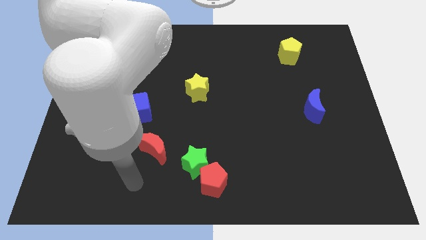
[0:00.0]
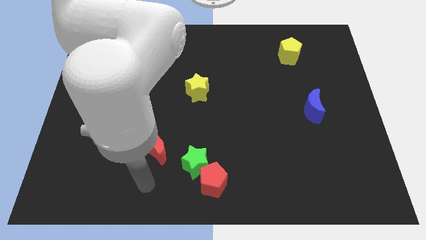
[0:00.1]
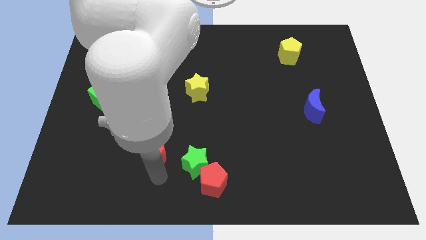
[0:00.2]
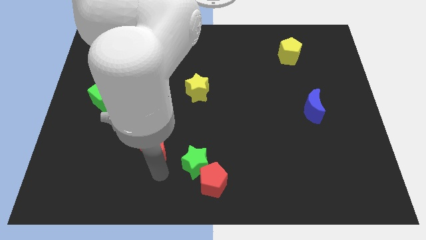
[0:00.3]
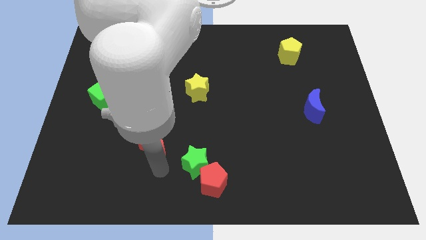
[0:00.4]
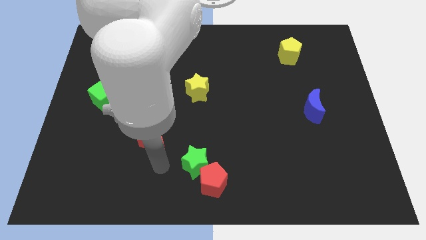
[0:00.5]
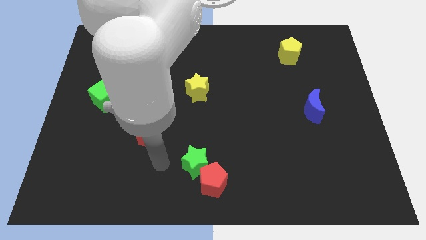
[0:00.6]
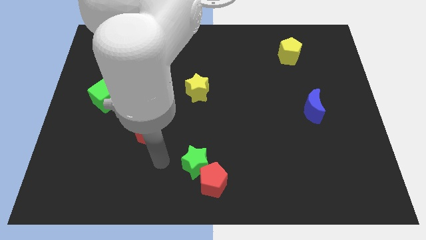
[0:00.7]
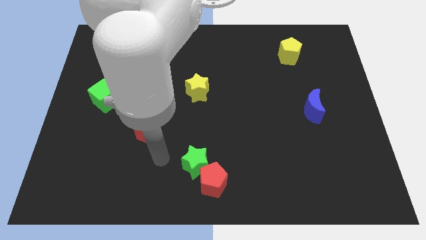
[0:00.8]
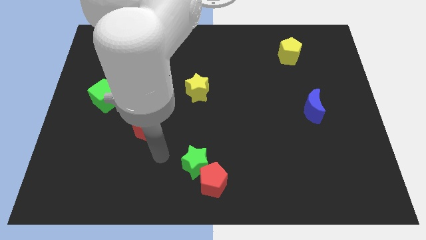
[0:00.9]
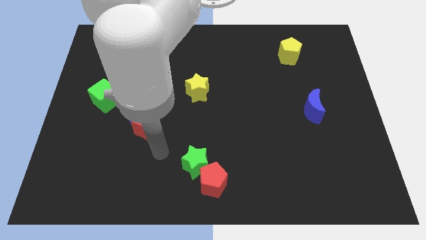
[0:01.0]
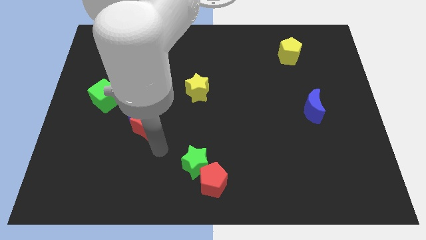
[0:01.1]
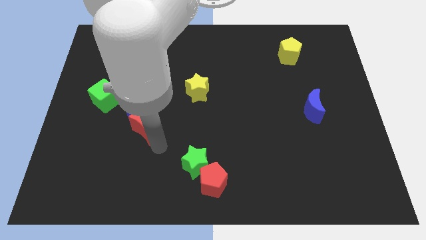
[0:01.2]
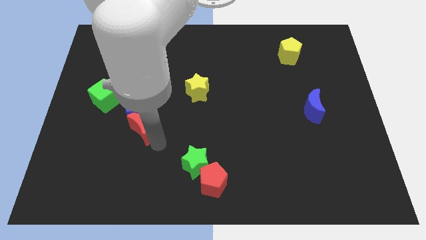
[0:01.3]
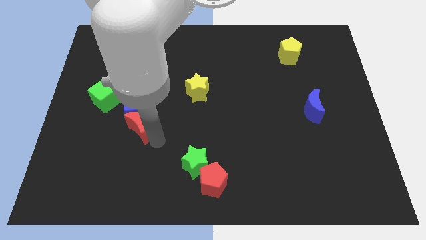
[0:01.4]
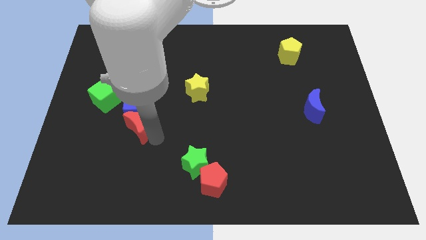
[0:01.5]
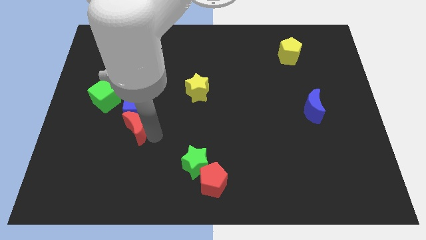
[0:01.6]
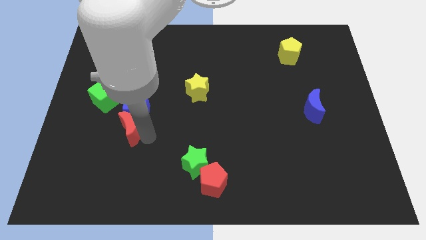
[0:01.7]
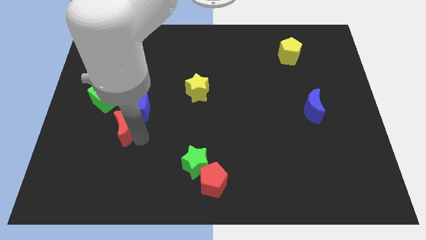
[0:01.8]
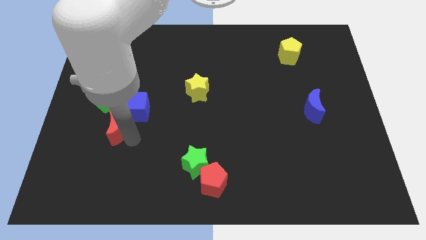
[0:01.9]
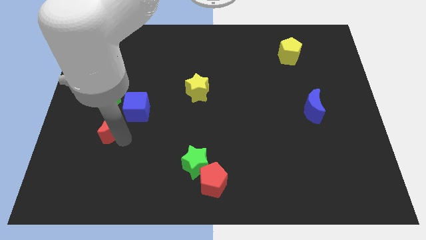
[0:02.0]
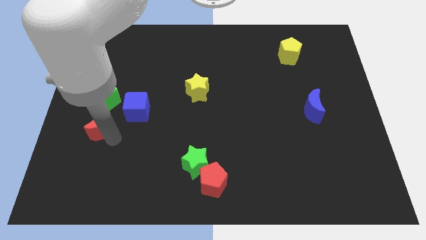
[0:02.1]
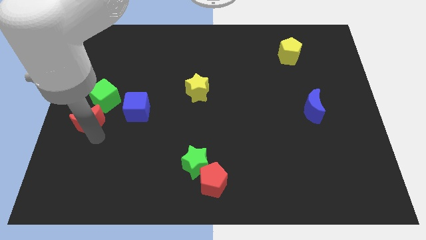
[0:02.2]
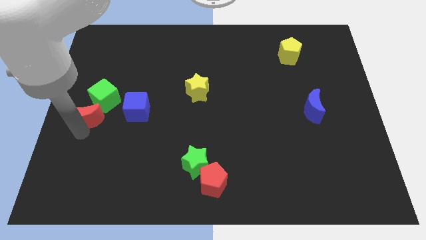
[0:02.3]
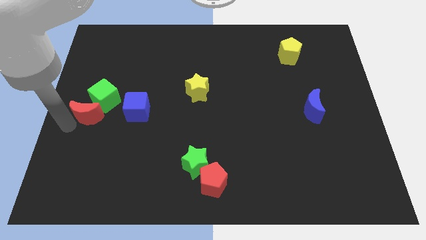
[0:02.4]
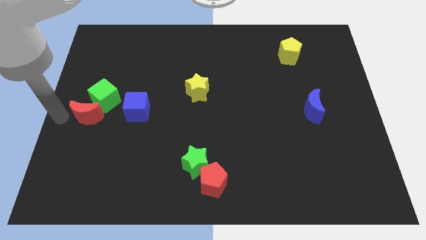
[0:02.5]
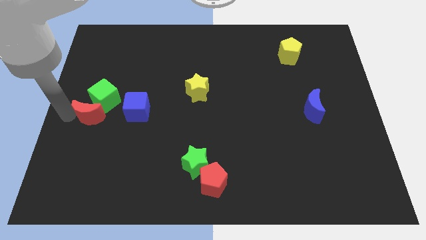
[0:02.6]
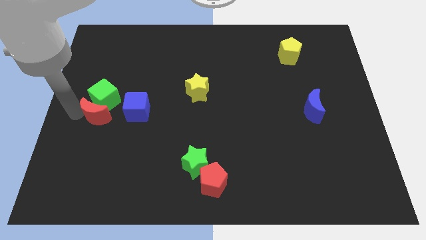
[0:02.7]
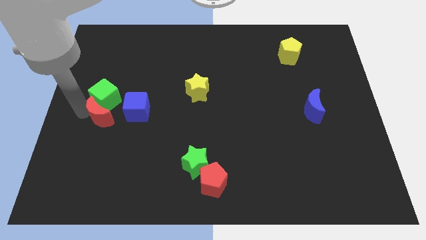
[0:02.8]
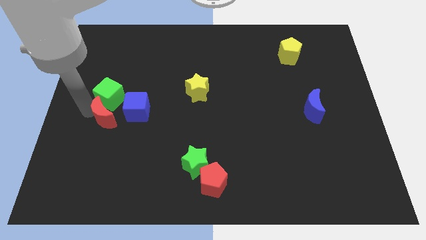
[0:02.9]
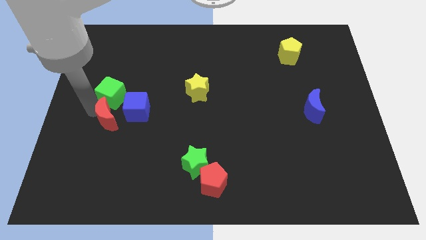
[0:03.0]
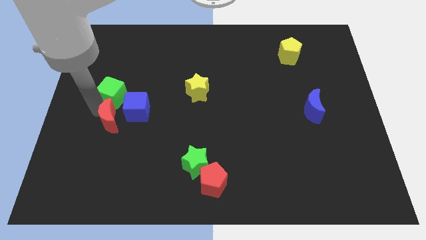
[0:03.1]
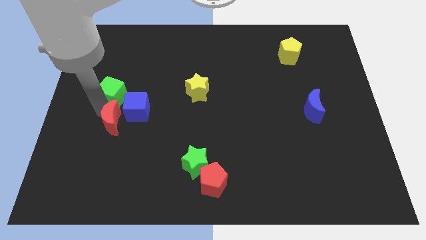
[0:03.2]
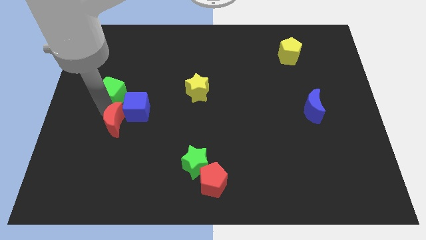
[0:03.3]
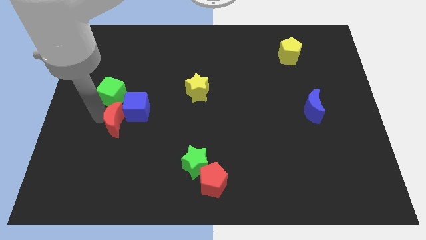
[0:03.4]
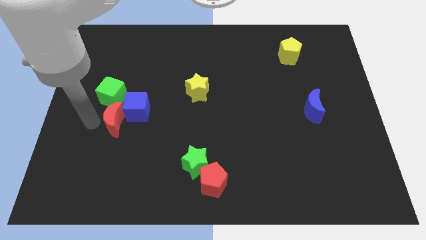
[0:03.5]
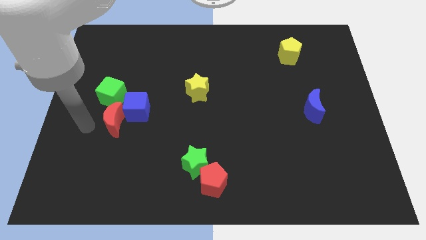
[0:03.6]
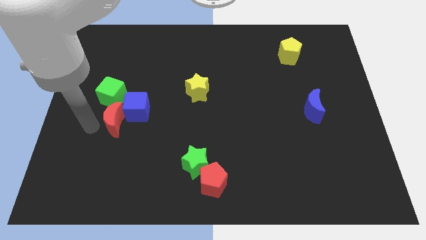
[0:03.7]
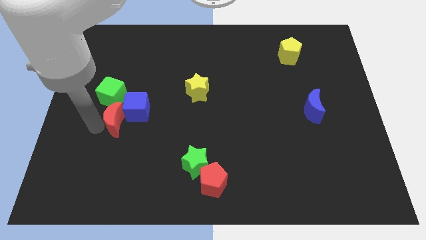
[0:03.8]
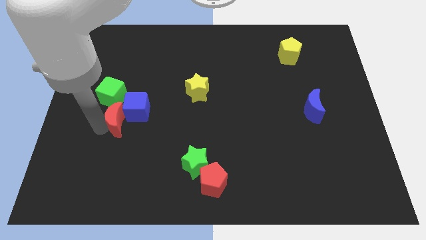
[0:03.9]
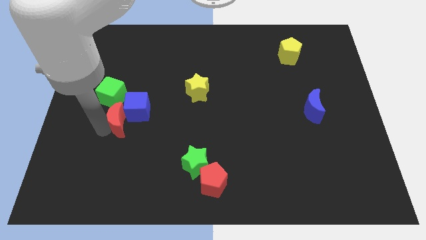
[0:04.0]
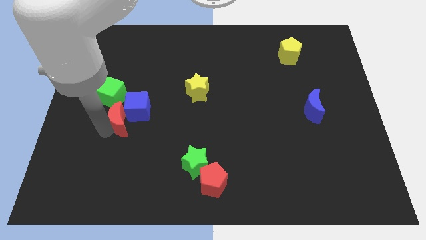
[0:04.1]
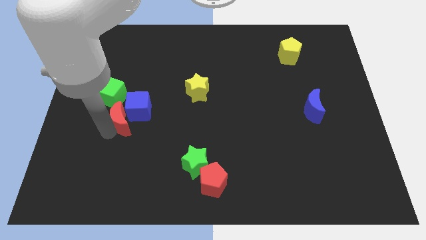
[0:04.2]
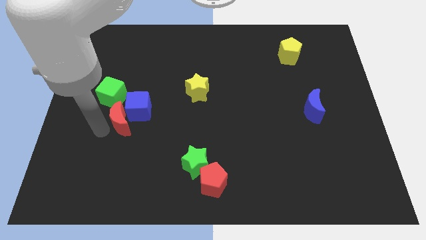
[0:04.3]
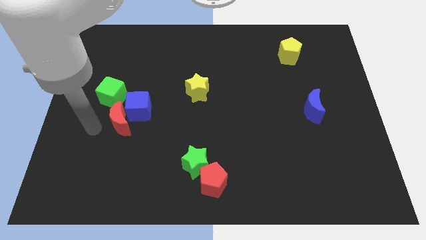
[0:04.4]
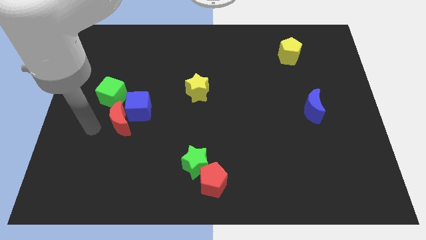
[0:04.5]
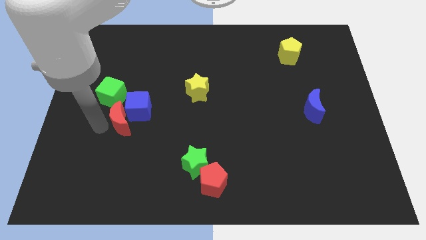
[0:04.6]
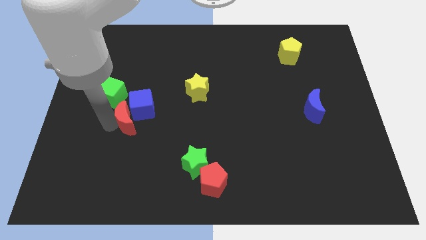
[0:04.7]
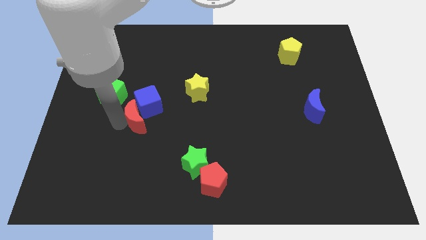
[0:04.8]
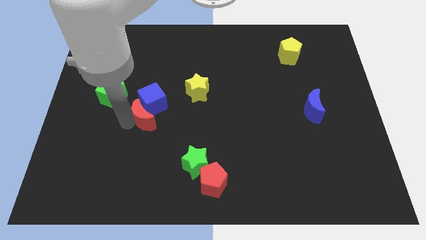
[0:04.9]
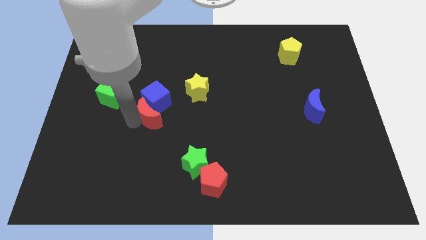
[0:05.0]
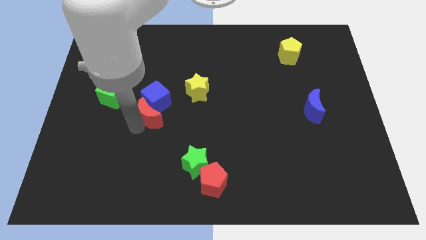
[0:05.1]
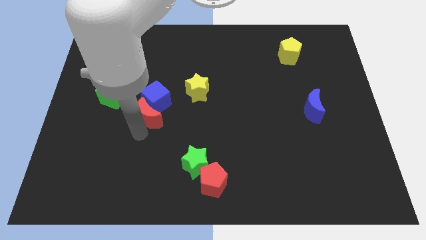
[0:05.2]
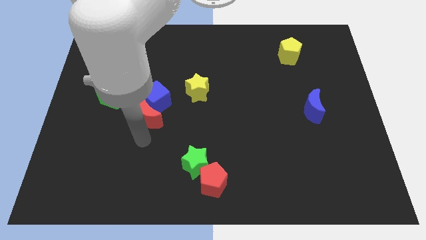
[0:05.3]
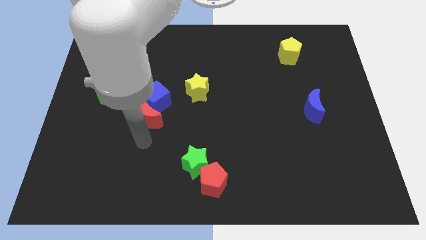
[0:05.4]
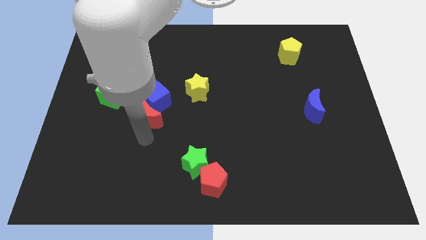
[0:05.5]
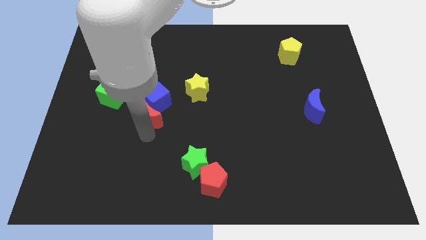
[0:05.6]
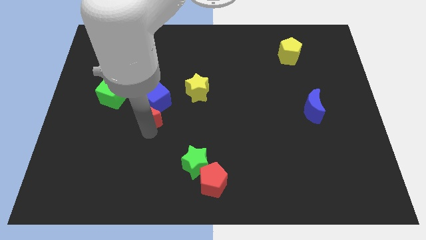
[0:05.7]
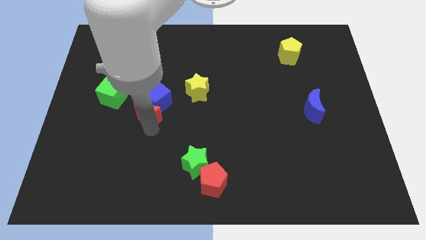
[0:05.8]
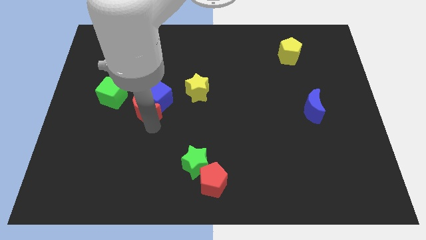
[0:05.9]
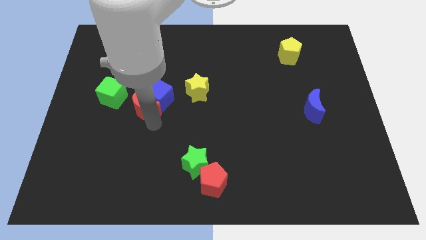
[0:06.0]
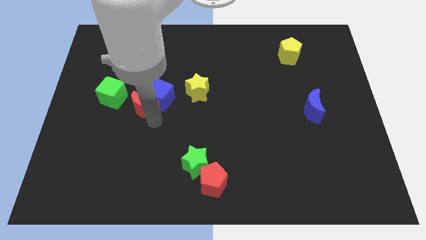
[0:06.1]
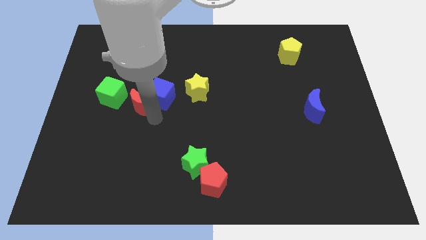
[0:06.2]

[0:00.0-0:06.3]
slide the red moon to the left of the yellow star
